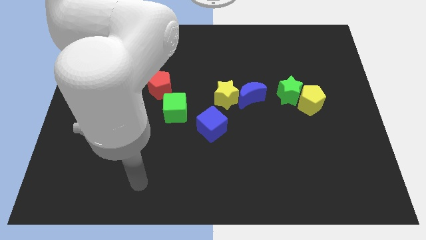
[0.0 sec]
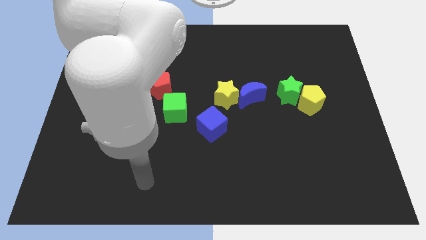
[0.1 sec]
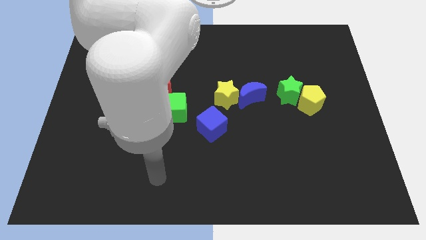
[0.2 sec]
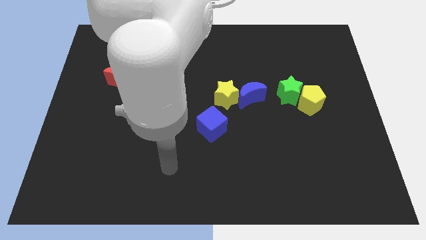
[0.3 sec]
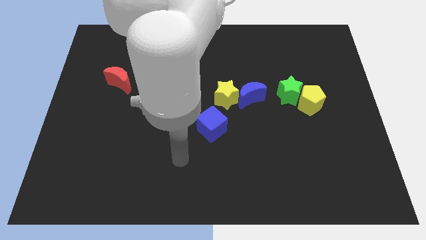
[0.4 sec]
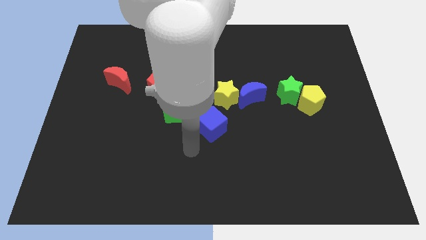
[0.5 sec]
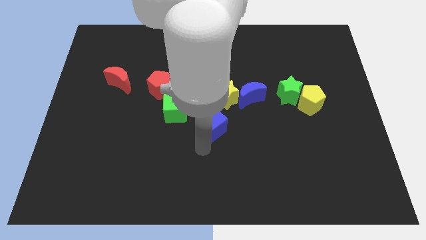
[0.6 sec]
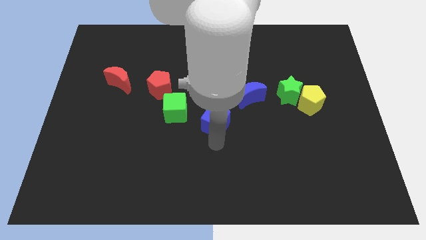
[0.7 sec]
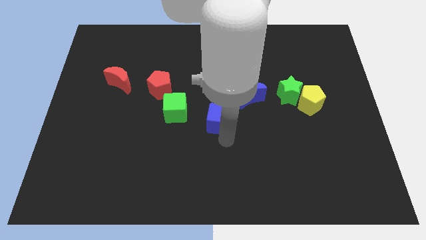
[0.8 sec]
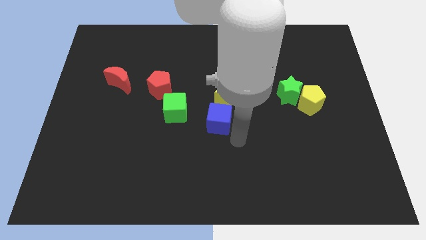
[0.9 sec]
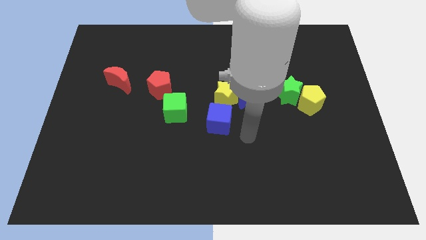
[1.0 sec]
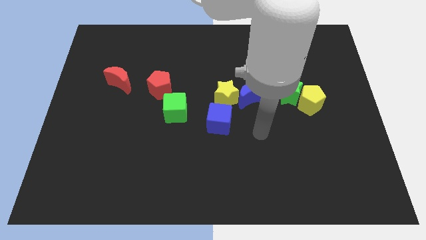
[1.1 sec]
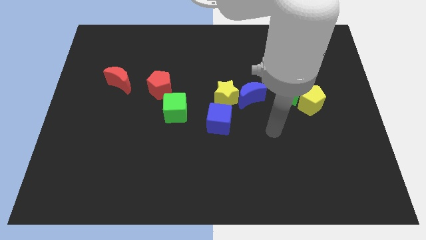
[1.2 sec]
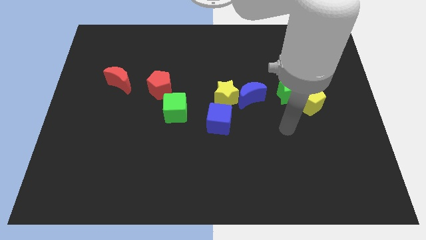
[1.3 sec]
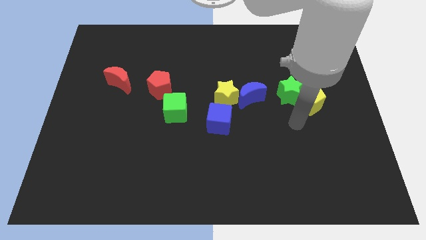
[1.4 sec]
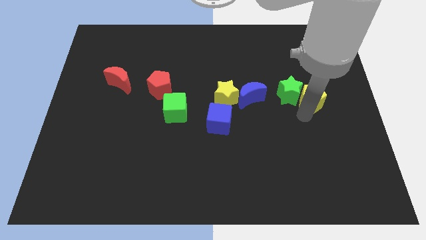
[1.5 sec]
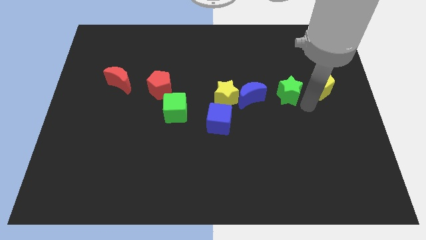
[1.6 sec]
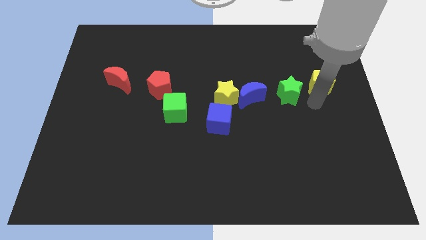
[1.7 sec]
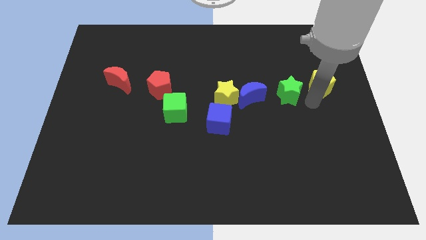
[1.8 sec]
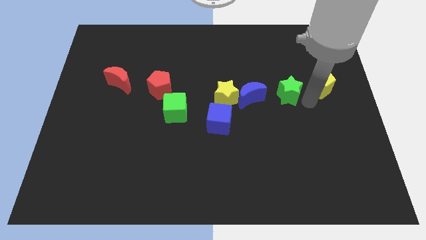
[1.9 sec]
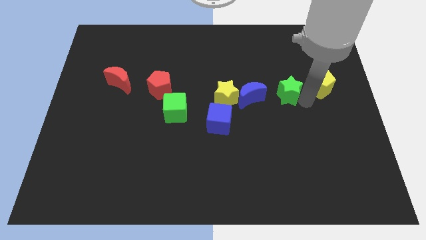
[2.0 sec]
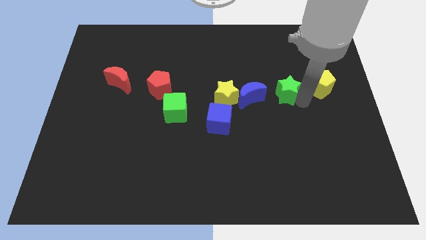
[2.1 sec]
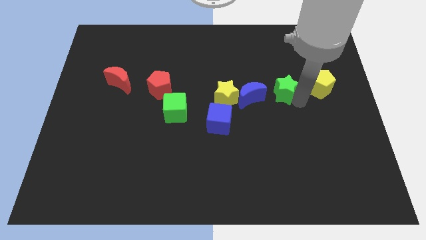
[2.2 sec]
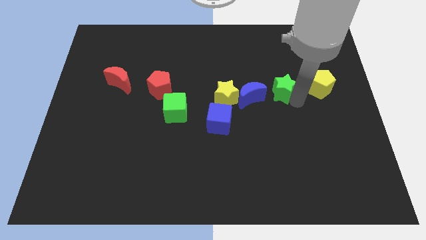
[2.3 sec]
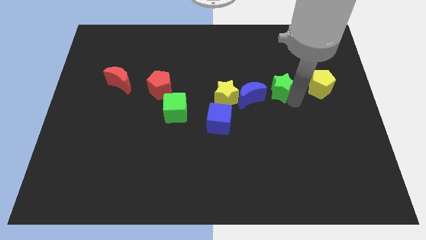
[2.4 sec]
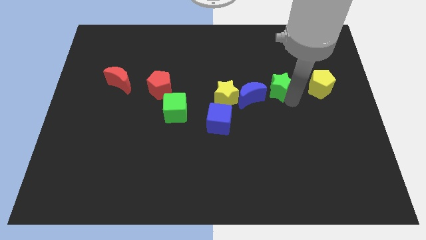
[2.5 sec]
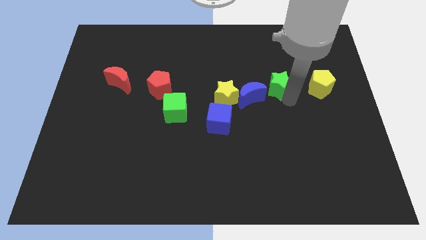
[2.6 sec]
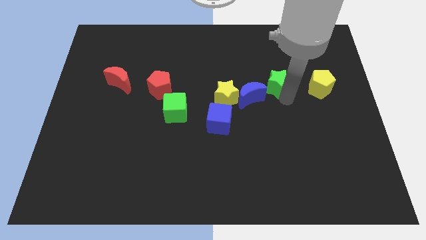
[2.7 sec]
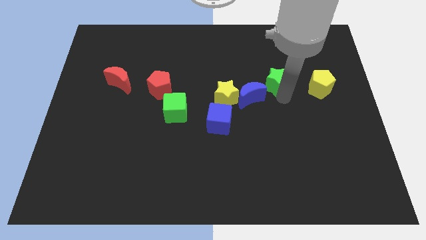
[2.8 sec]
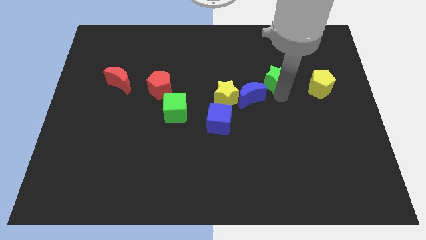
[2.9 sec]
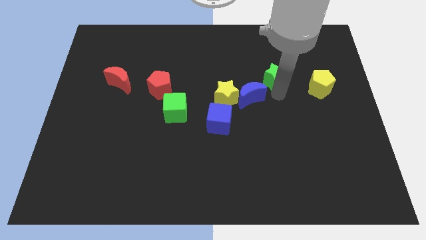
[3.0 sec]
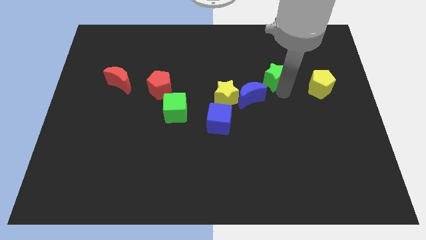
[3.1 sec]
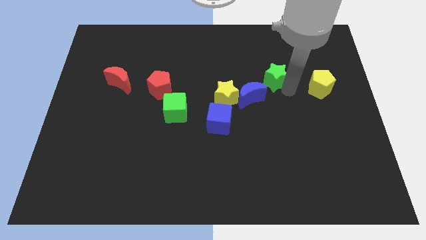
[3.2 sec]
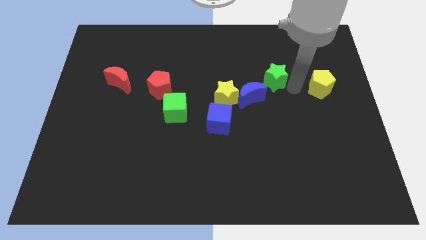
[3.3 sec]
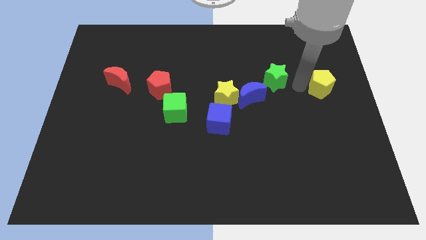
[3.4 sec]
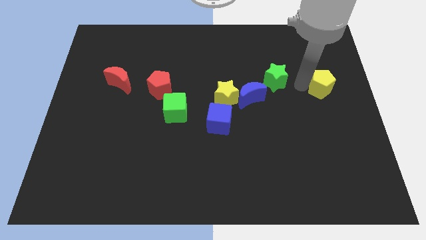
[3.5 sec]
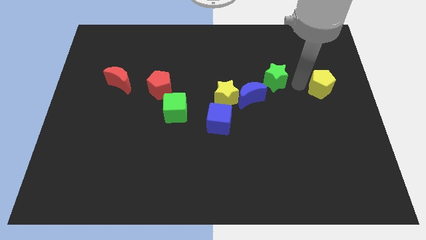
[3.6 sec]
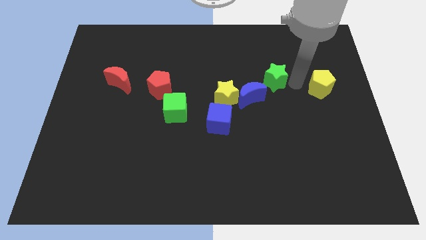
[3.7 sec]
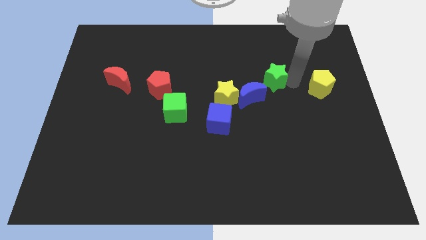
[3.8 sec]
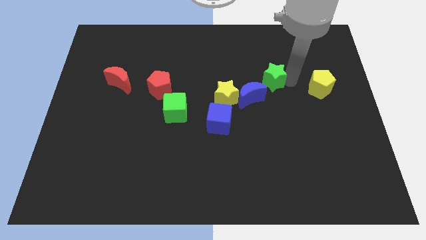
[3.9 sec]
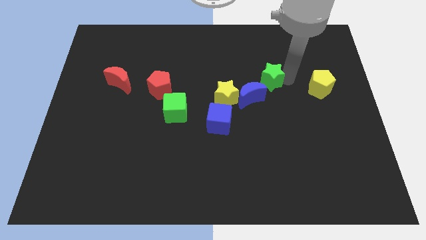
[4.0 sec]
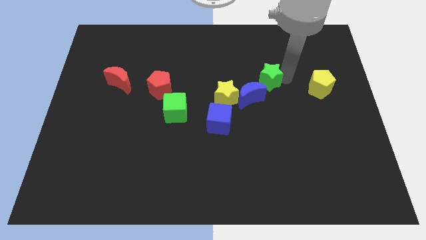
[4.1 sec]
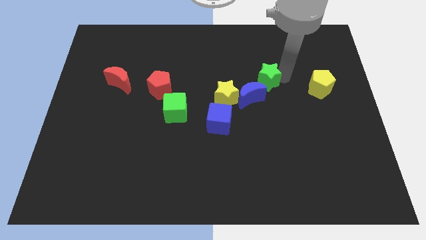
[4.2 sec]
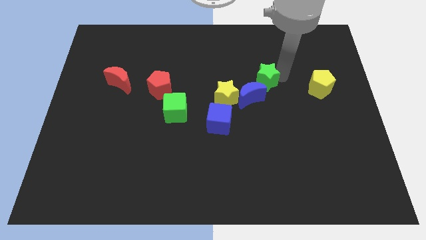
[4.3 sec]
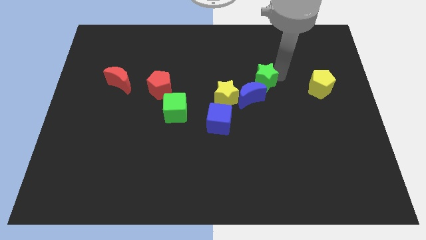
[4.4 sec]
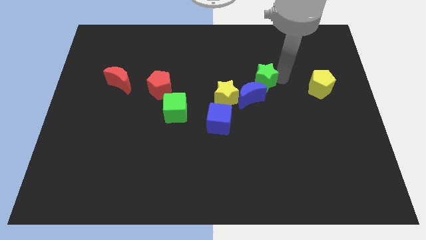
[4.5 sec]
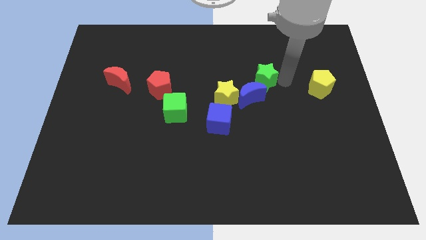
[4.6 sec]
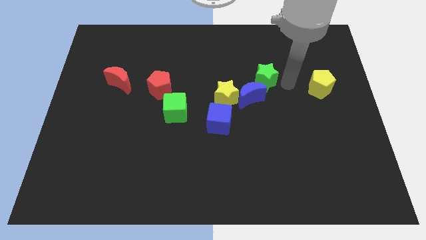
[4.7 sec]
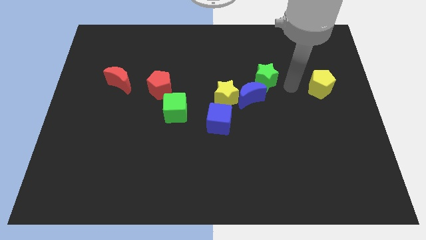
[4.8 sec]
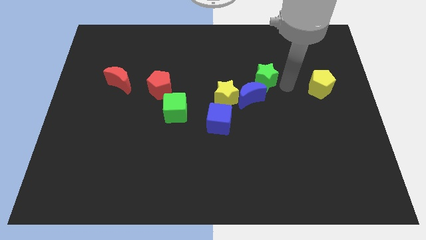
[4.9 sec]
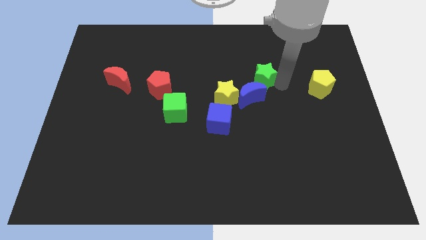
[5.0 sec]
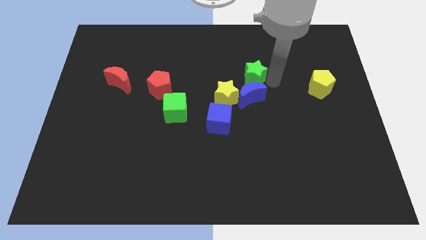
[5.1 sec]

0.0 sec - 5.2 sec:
slide the green star to the left a bit

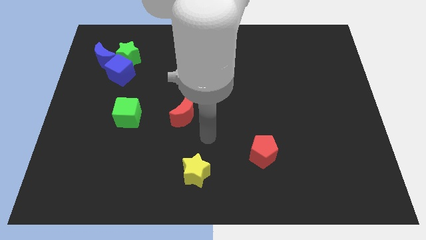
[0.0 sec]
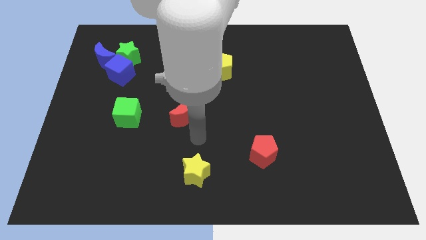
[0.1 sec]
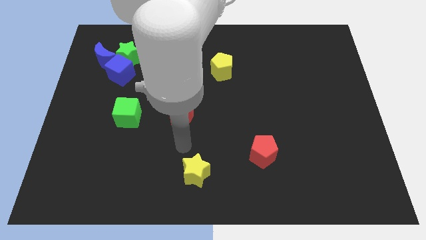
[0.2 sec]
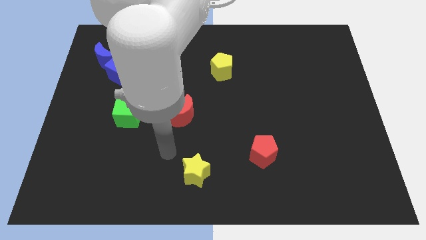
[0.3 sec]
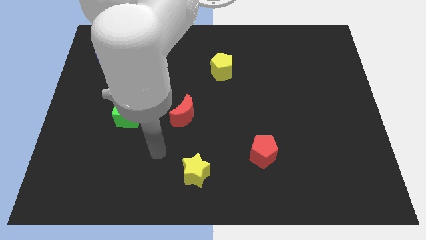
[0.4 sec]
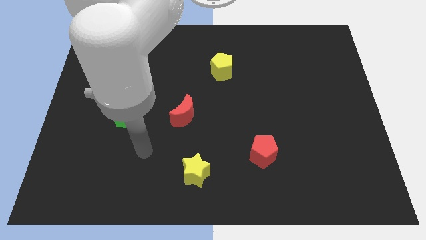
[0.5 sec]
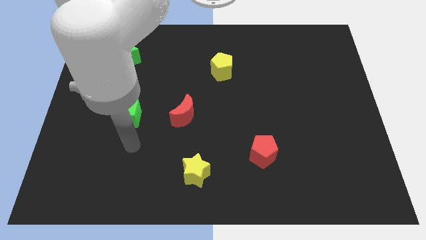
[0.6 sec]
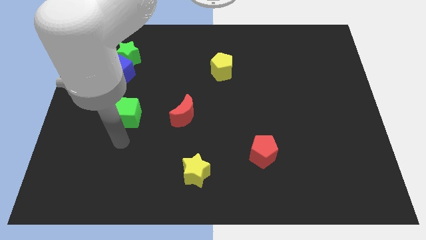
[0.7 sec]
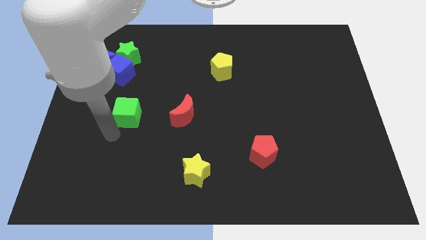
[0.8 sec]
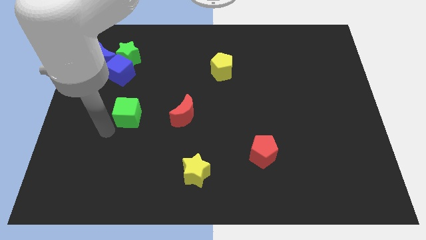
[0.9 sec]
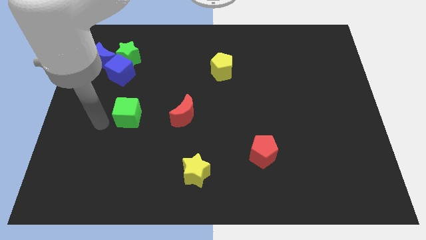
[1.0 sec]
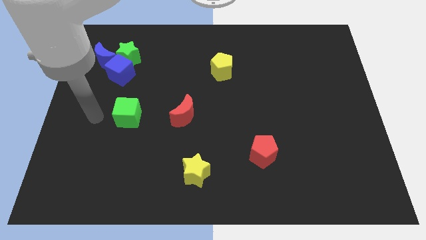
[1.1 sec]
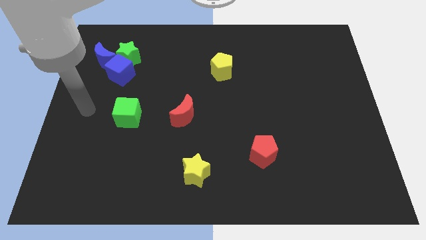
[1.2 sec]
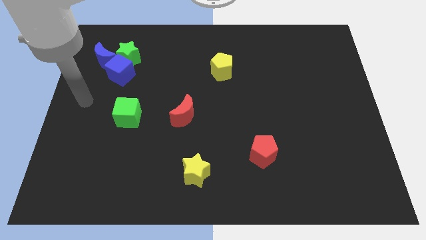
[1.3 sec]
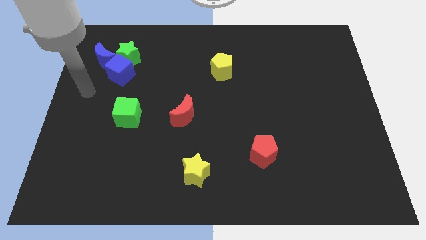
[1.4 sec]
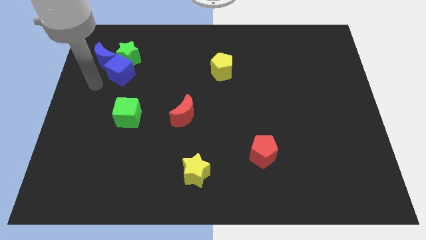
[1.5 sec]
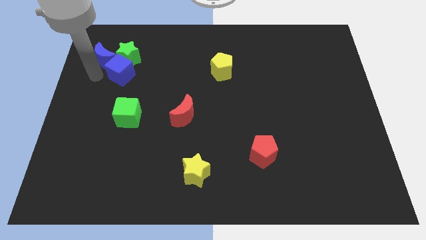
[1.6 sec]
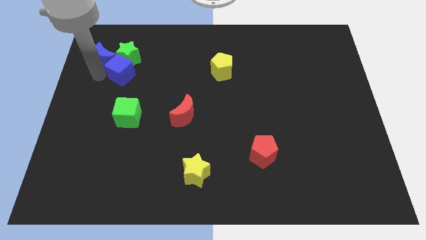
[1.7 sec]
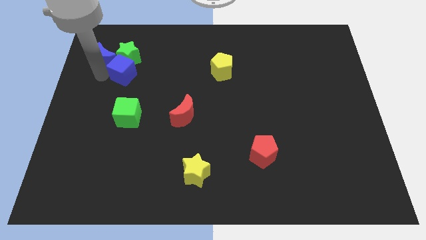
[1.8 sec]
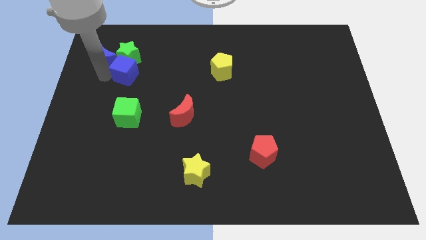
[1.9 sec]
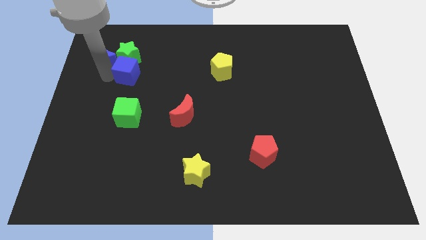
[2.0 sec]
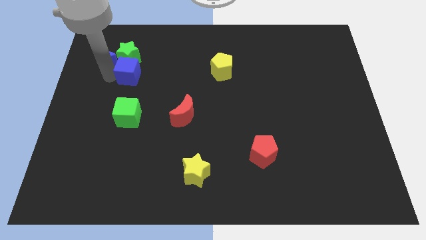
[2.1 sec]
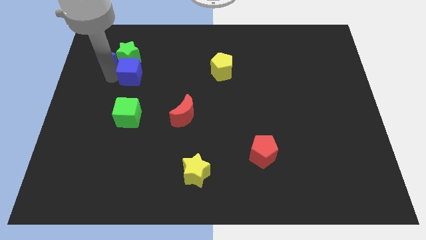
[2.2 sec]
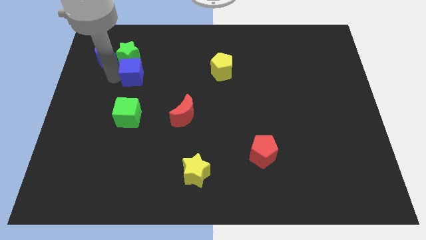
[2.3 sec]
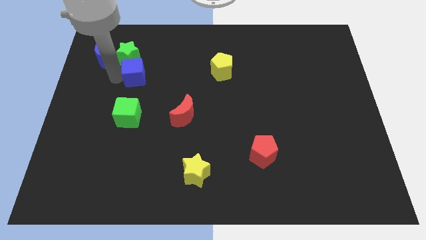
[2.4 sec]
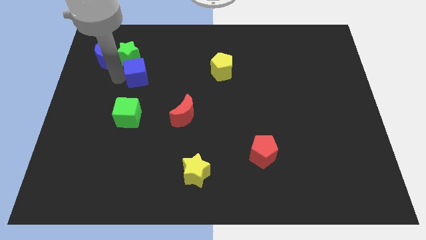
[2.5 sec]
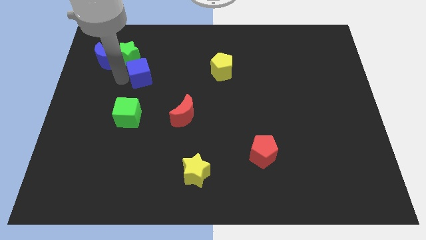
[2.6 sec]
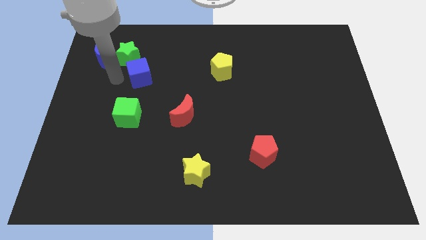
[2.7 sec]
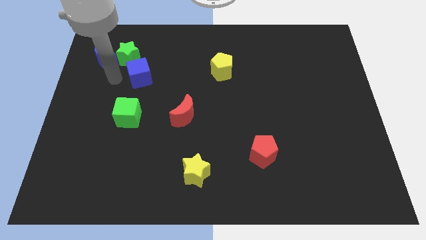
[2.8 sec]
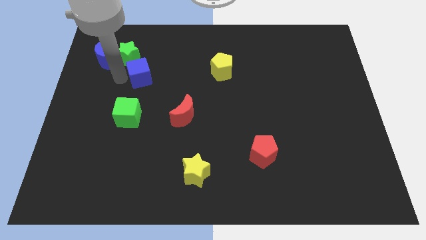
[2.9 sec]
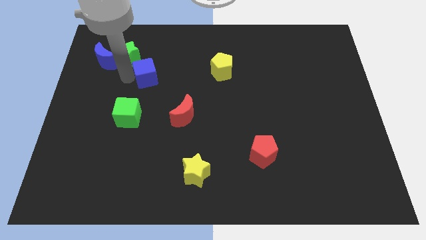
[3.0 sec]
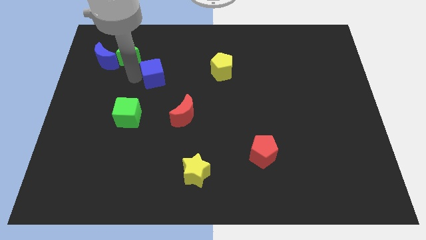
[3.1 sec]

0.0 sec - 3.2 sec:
slightly push the blue cube to the right
